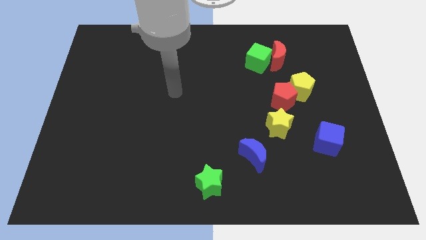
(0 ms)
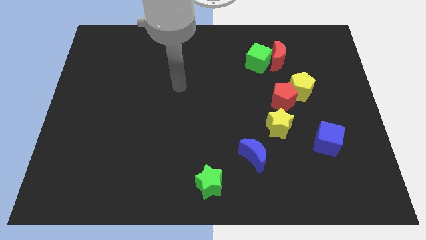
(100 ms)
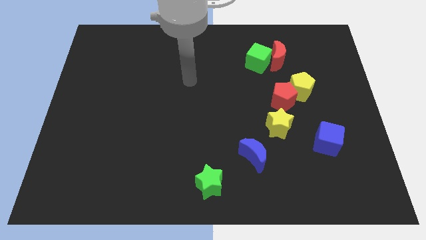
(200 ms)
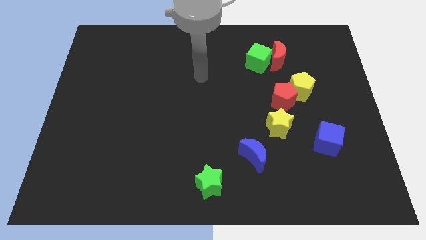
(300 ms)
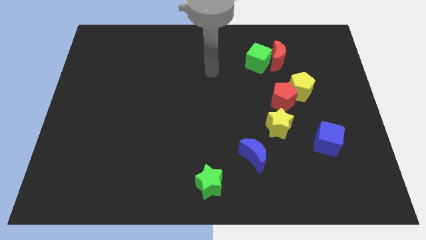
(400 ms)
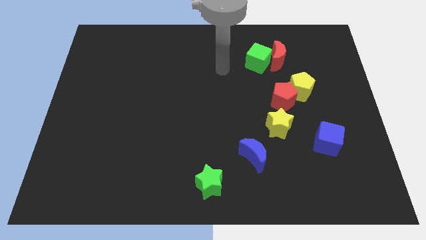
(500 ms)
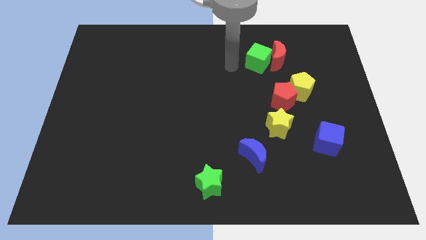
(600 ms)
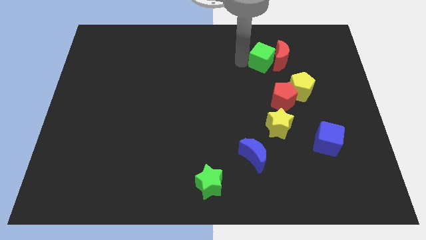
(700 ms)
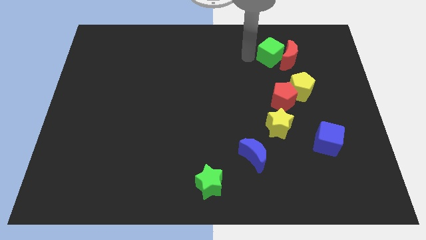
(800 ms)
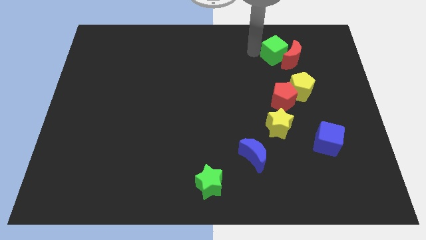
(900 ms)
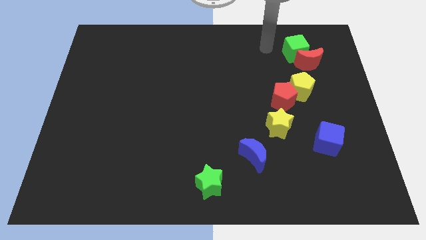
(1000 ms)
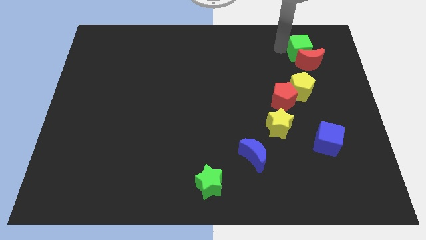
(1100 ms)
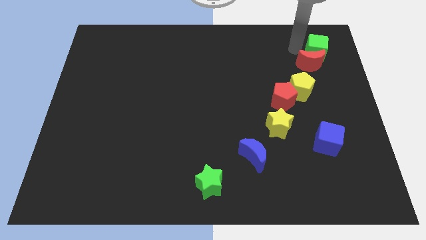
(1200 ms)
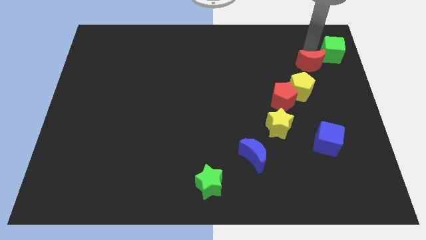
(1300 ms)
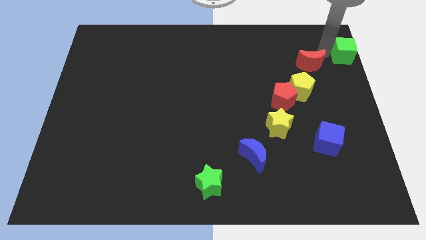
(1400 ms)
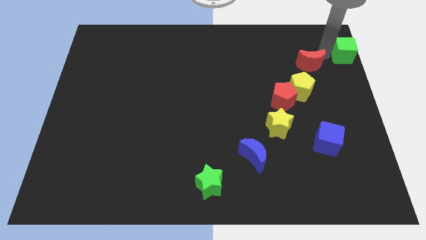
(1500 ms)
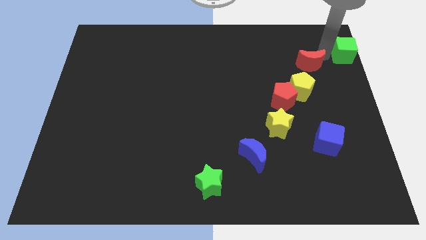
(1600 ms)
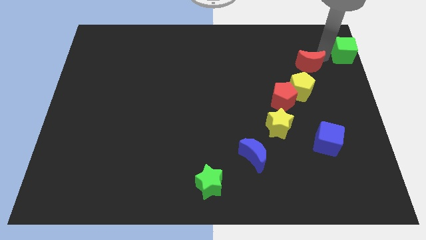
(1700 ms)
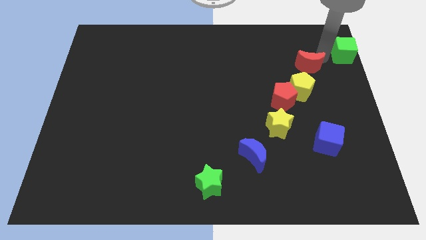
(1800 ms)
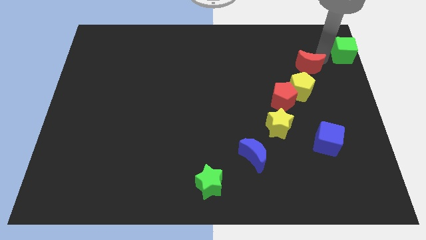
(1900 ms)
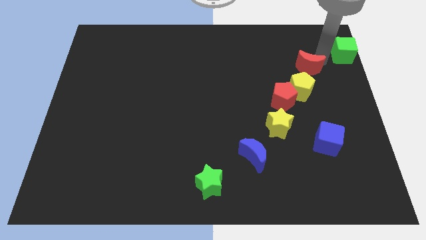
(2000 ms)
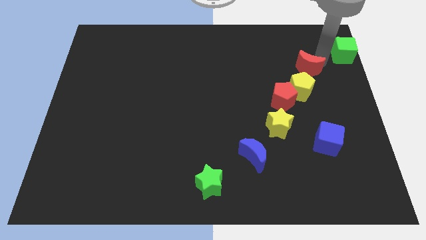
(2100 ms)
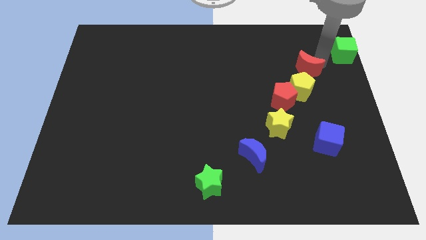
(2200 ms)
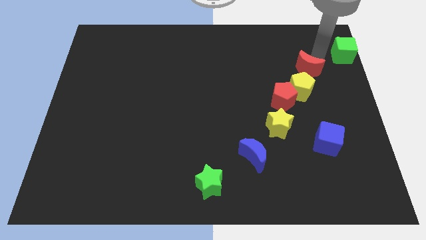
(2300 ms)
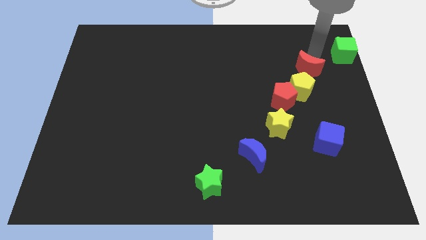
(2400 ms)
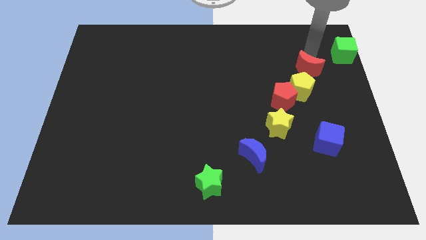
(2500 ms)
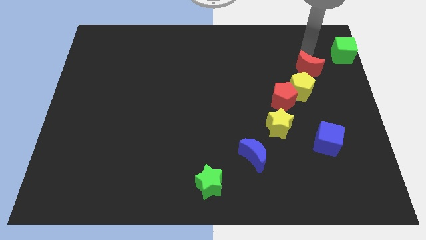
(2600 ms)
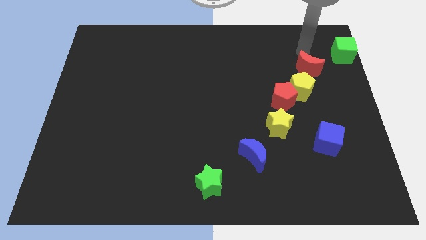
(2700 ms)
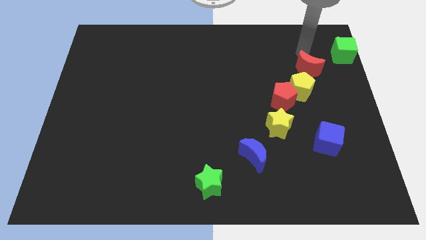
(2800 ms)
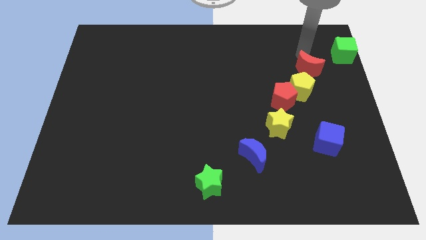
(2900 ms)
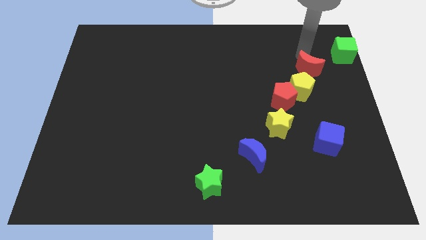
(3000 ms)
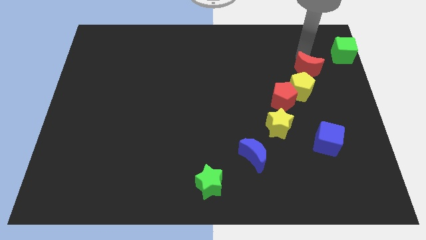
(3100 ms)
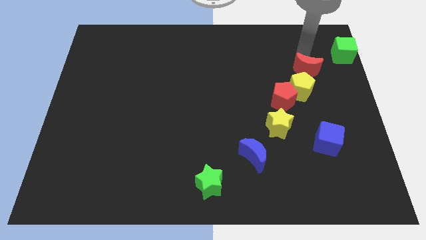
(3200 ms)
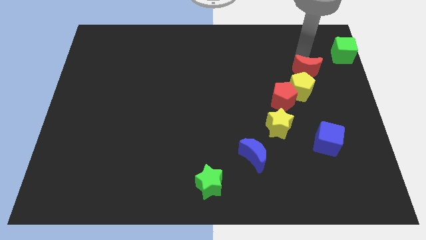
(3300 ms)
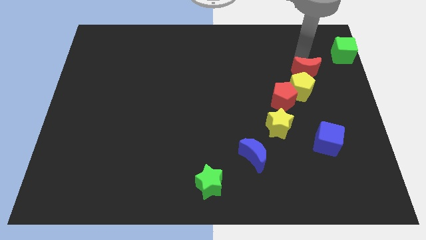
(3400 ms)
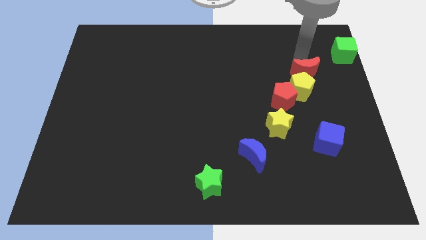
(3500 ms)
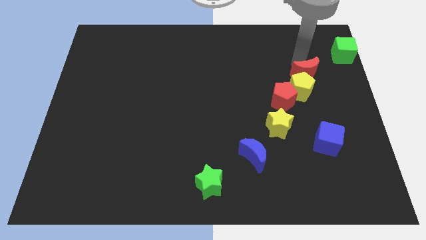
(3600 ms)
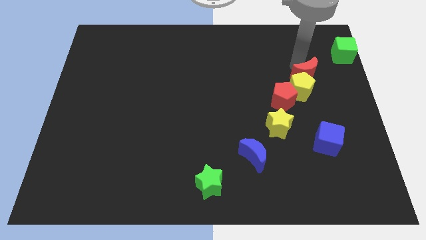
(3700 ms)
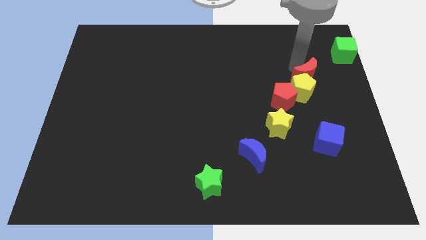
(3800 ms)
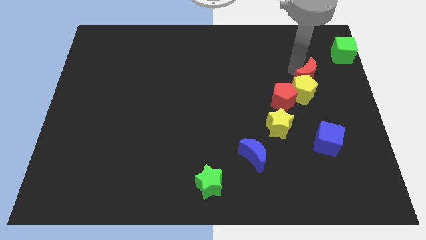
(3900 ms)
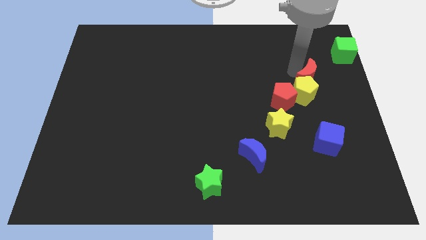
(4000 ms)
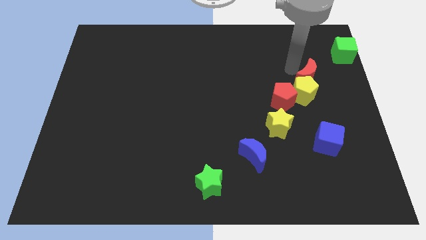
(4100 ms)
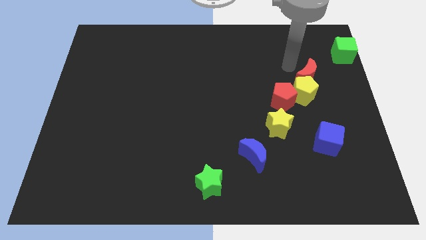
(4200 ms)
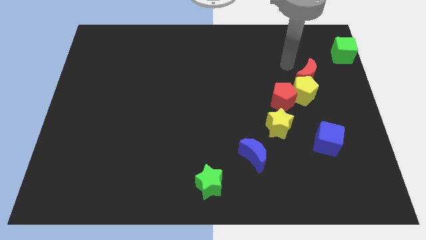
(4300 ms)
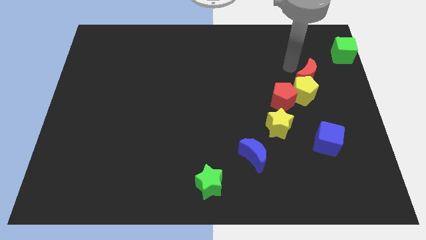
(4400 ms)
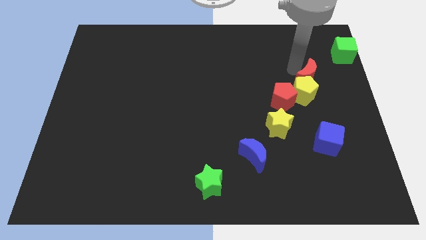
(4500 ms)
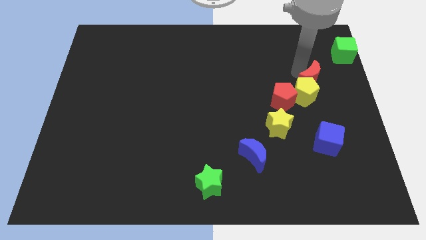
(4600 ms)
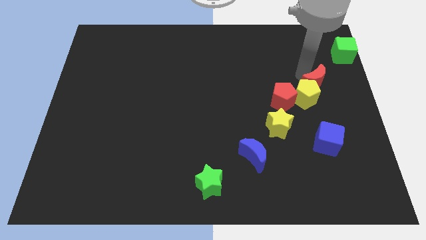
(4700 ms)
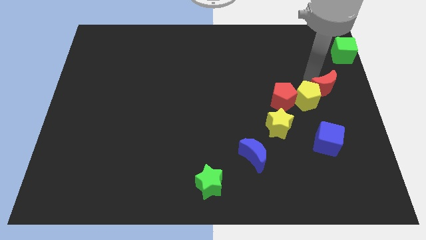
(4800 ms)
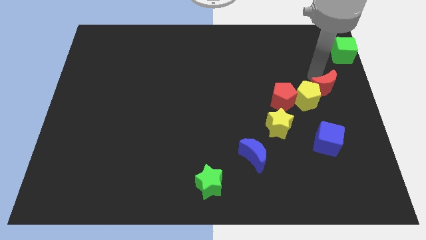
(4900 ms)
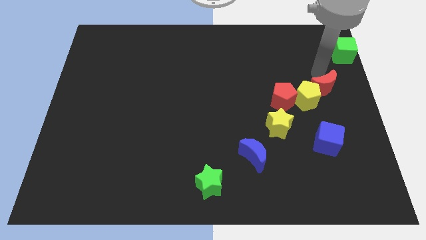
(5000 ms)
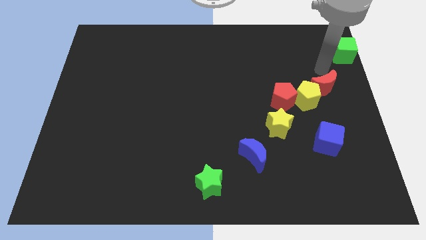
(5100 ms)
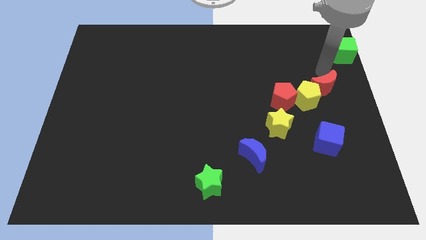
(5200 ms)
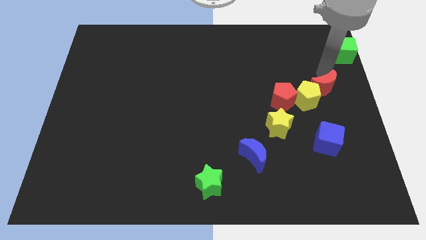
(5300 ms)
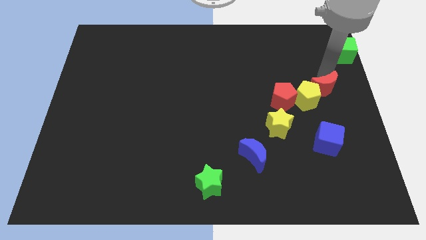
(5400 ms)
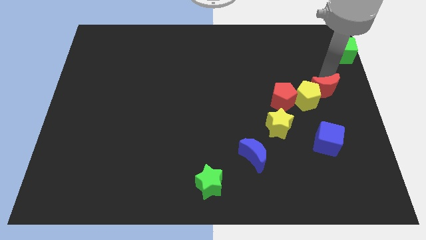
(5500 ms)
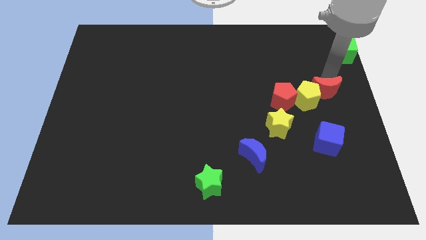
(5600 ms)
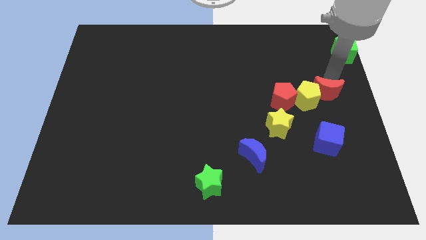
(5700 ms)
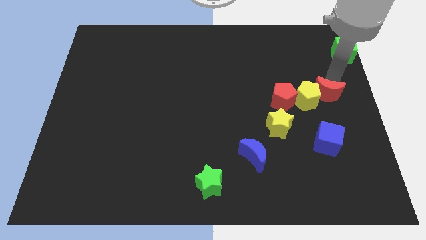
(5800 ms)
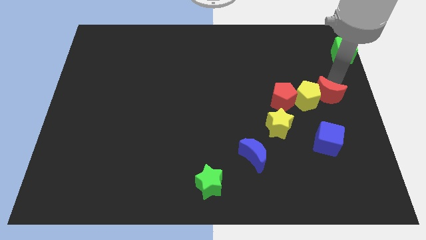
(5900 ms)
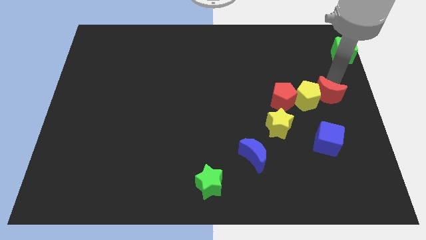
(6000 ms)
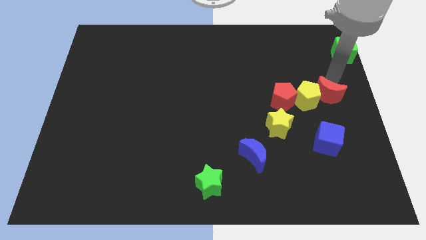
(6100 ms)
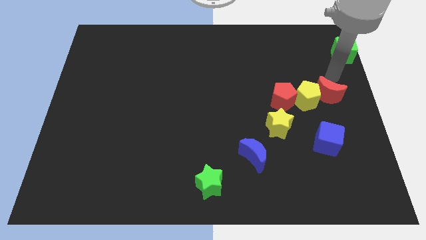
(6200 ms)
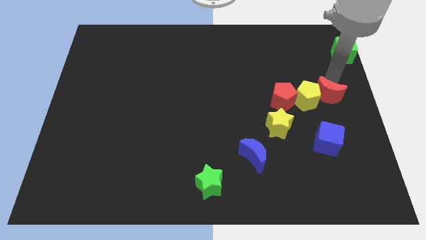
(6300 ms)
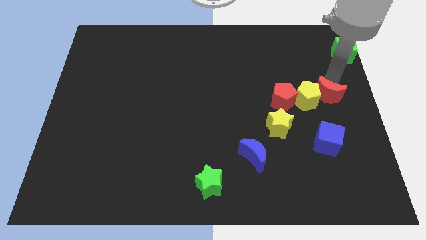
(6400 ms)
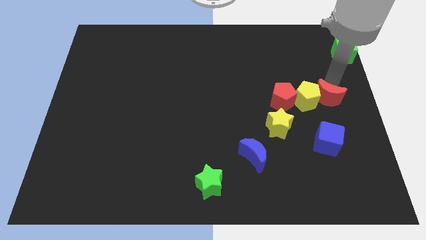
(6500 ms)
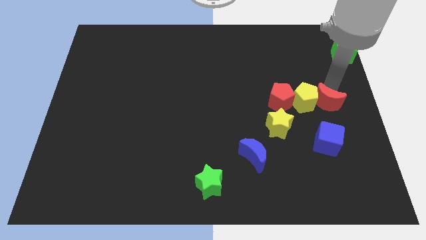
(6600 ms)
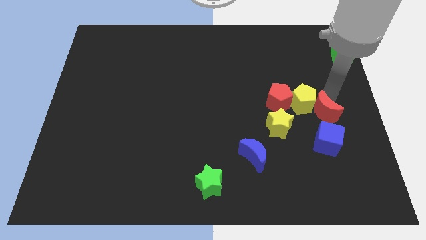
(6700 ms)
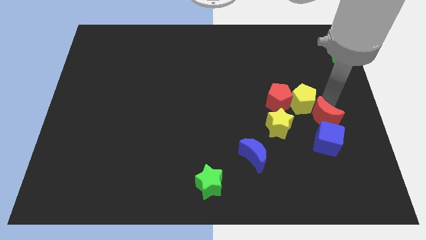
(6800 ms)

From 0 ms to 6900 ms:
move the red moon to the bottom side of the yellow pentagon

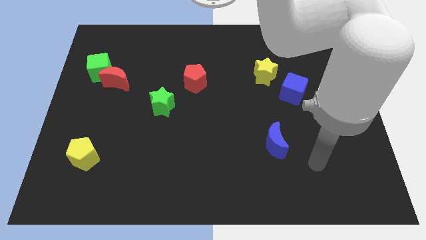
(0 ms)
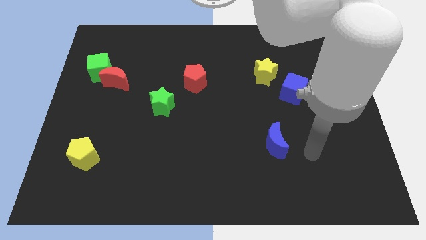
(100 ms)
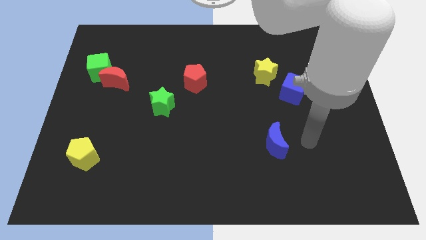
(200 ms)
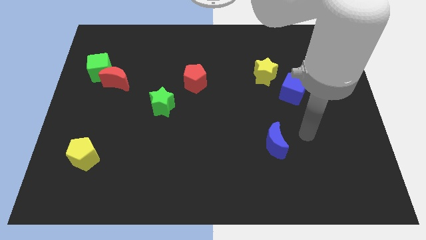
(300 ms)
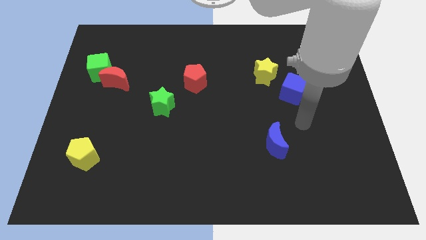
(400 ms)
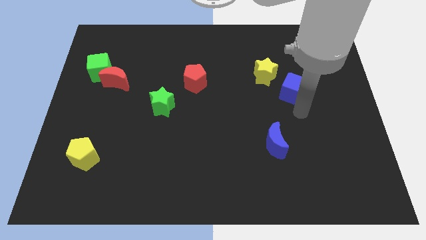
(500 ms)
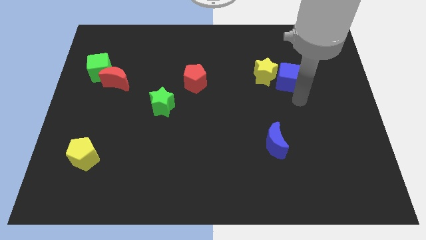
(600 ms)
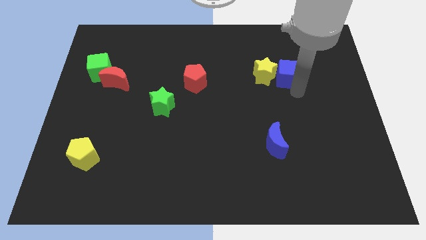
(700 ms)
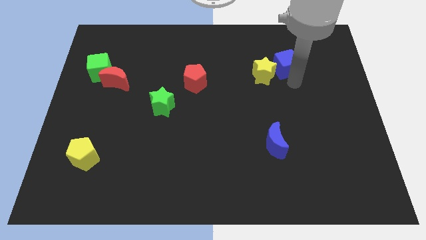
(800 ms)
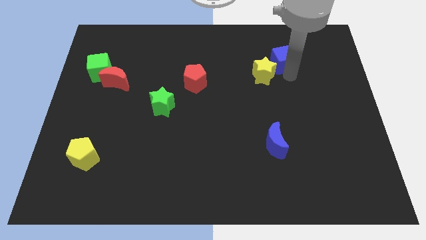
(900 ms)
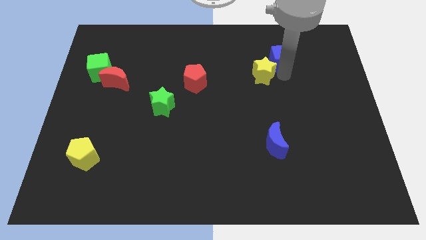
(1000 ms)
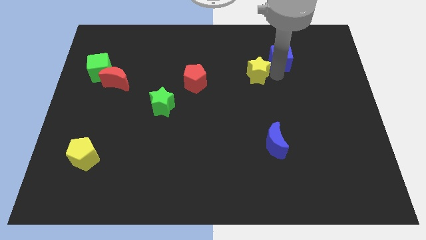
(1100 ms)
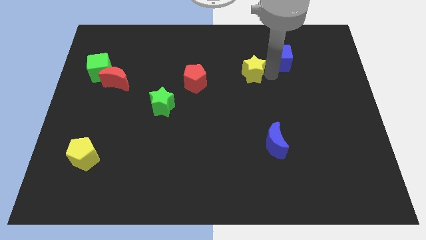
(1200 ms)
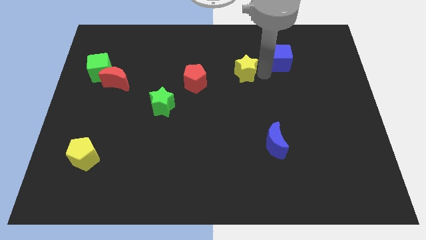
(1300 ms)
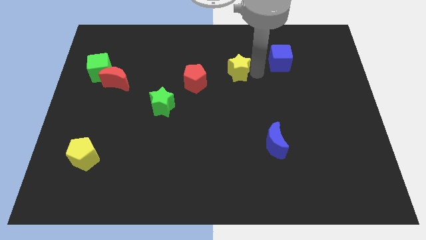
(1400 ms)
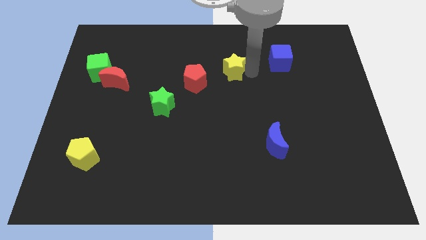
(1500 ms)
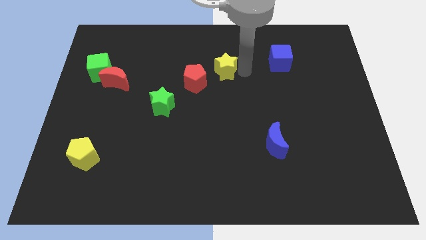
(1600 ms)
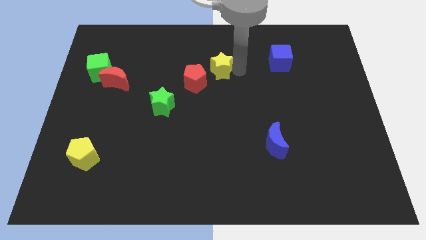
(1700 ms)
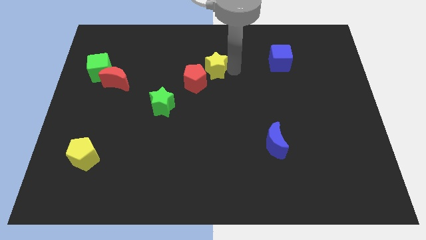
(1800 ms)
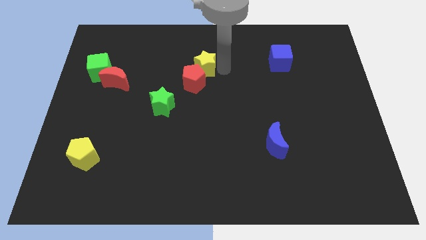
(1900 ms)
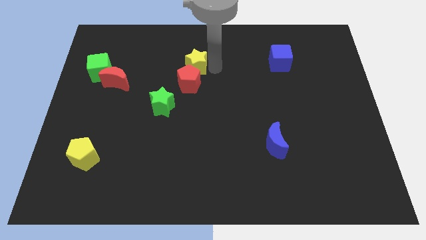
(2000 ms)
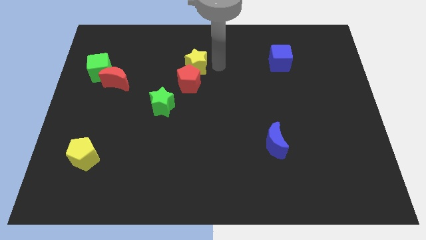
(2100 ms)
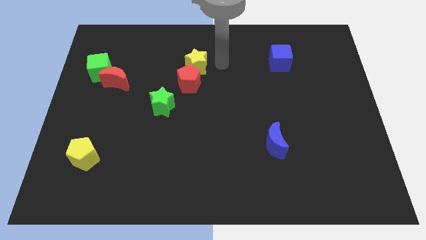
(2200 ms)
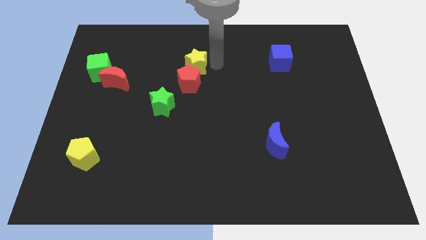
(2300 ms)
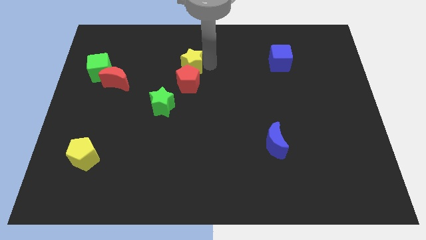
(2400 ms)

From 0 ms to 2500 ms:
slide the yellow star diagonally up and to the left of the red pentagon
